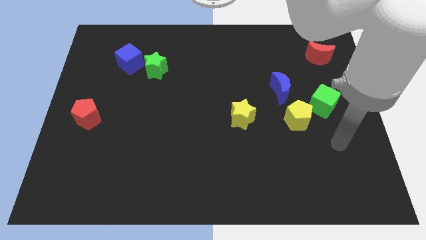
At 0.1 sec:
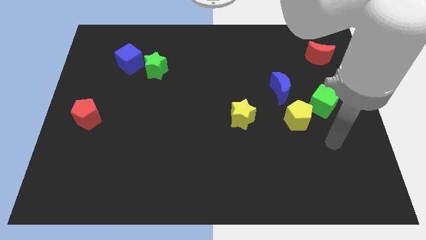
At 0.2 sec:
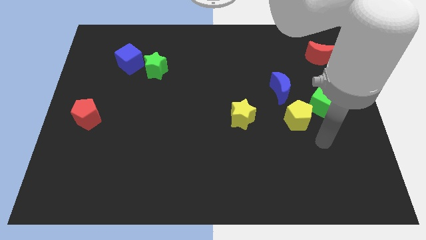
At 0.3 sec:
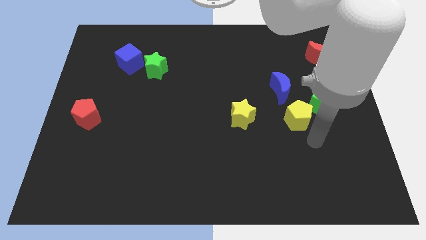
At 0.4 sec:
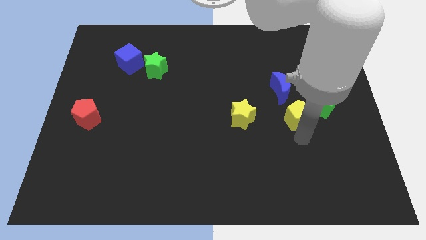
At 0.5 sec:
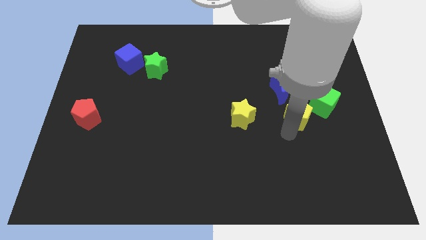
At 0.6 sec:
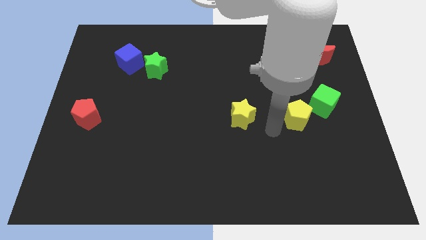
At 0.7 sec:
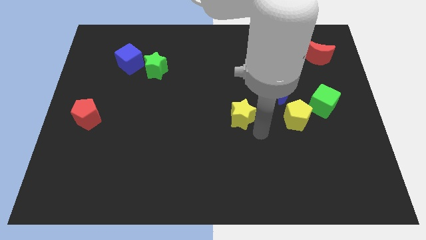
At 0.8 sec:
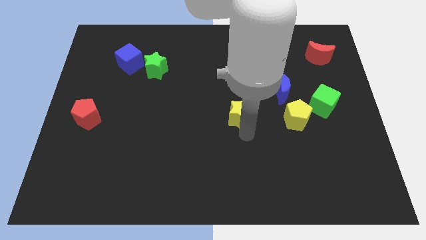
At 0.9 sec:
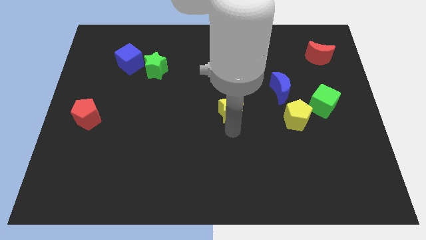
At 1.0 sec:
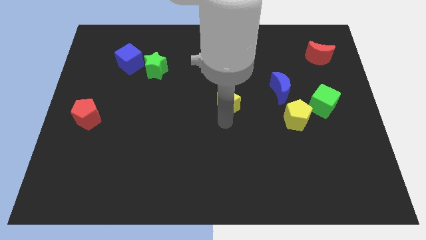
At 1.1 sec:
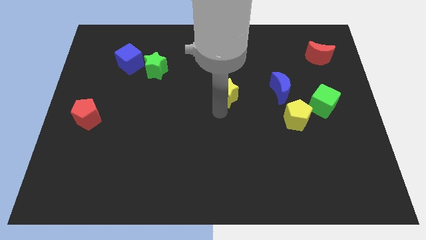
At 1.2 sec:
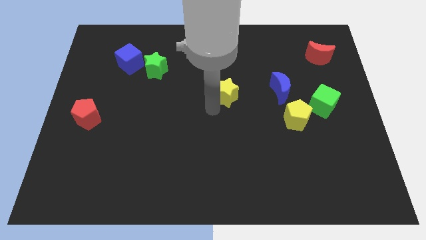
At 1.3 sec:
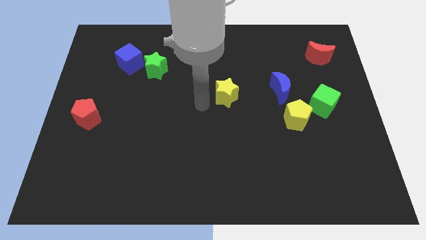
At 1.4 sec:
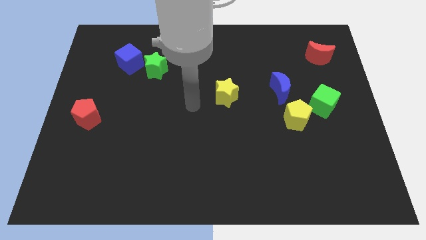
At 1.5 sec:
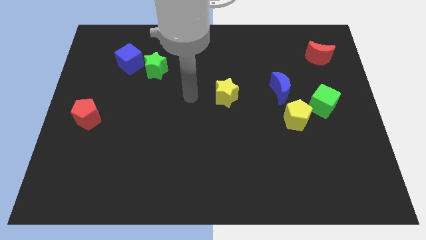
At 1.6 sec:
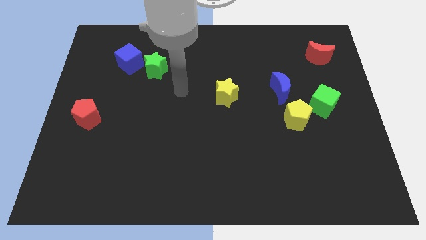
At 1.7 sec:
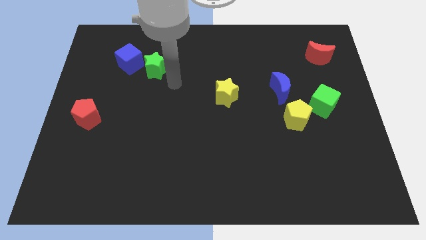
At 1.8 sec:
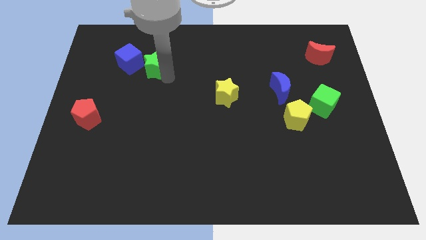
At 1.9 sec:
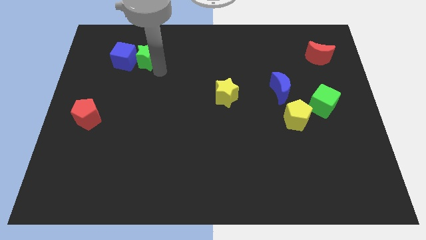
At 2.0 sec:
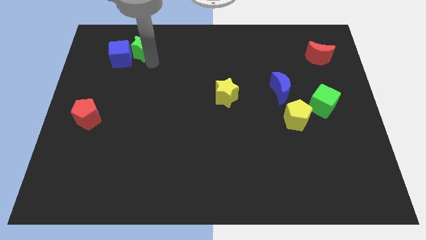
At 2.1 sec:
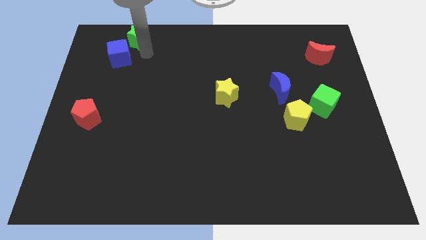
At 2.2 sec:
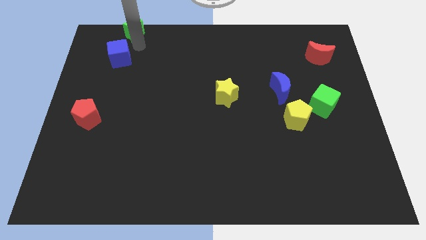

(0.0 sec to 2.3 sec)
separate the blue cube from the green star

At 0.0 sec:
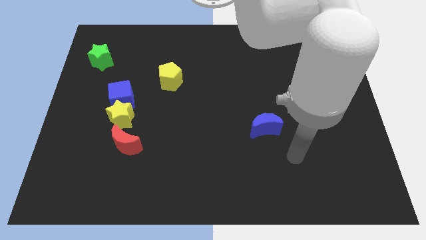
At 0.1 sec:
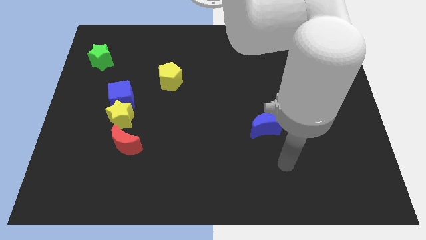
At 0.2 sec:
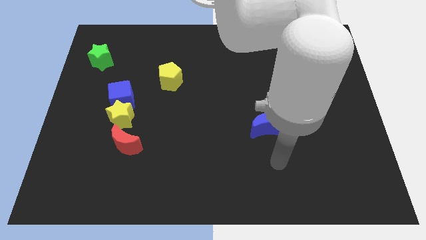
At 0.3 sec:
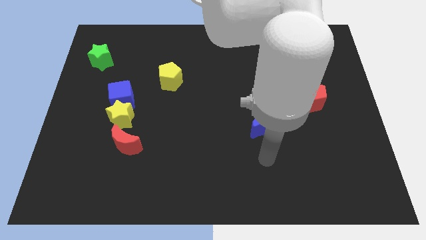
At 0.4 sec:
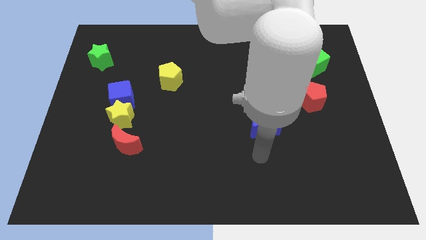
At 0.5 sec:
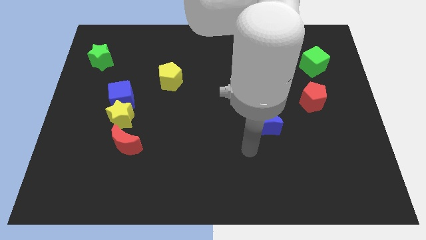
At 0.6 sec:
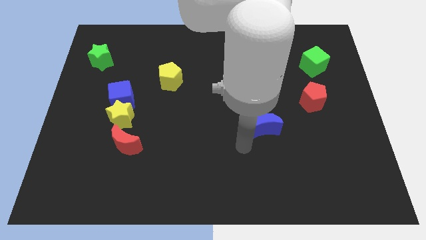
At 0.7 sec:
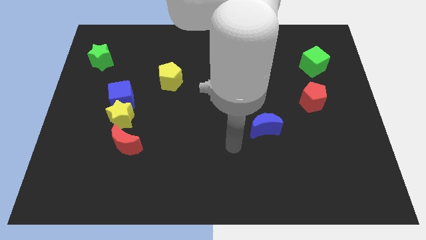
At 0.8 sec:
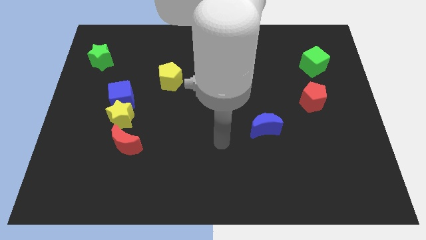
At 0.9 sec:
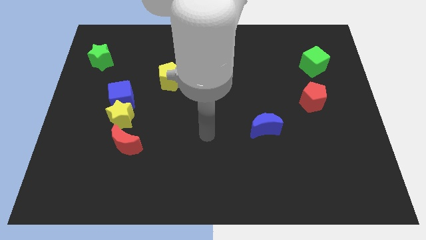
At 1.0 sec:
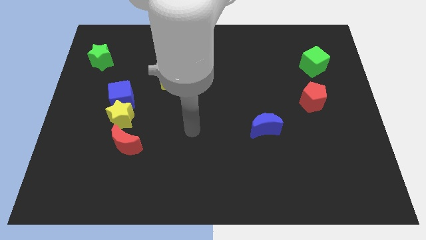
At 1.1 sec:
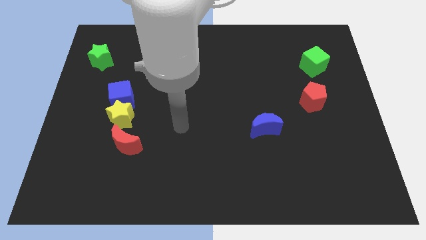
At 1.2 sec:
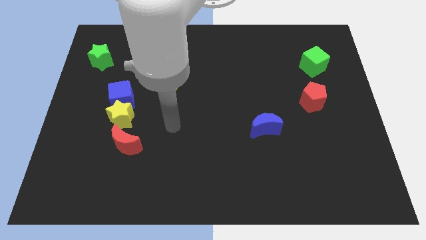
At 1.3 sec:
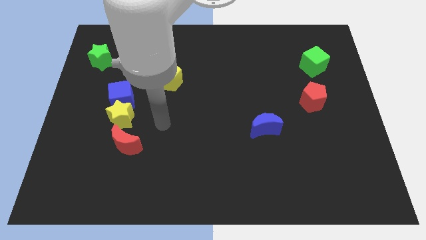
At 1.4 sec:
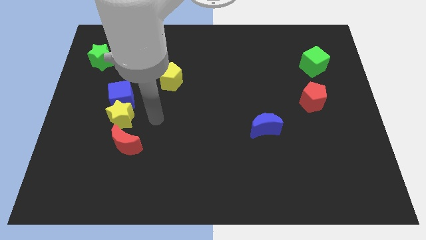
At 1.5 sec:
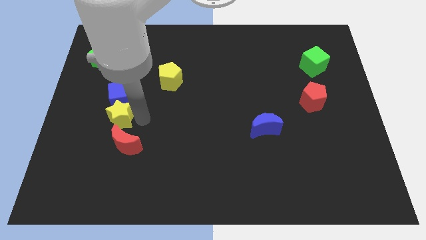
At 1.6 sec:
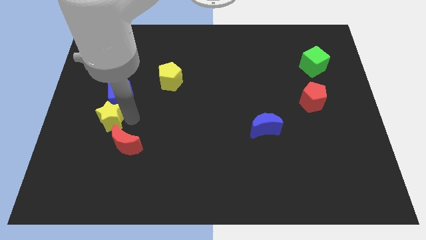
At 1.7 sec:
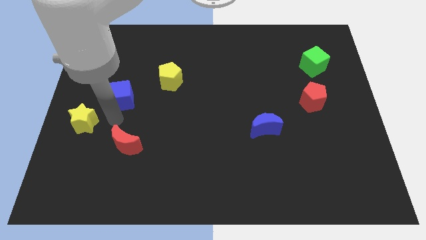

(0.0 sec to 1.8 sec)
separate the blue cube from the yellow star

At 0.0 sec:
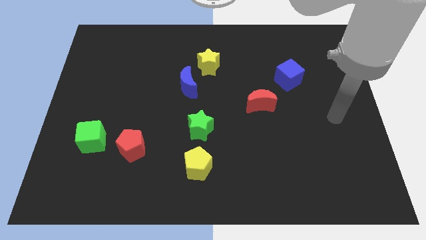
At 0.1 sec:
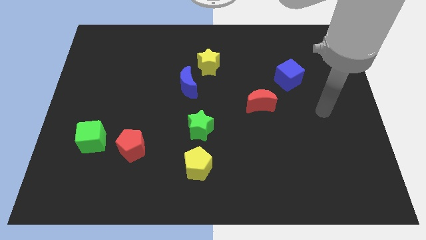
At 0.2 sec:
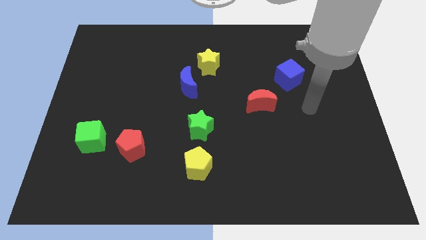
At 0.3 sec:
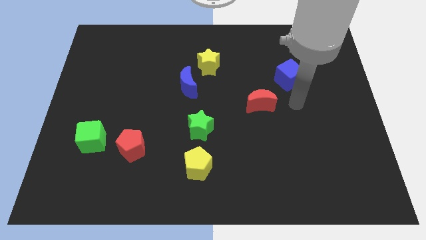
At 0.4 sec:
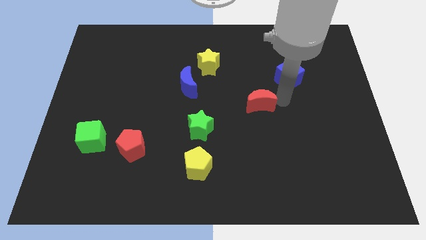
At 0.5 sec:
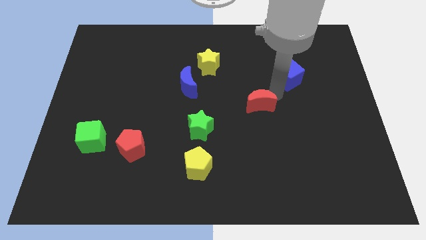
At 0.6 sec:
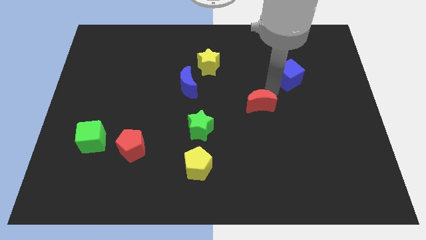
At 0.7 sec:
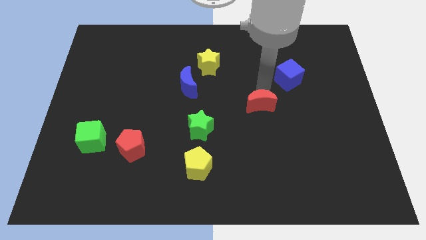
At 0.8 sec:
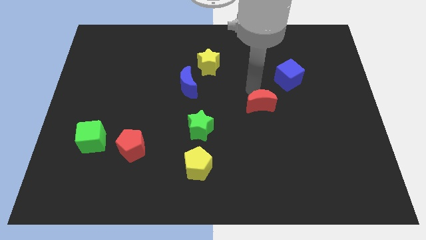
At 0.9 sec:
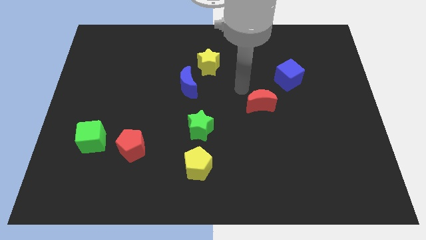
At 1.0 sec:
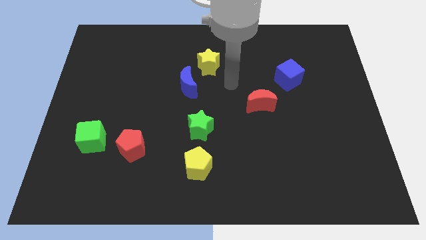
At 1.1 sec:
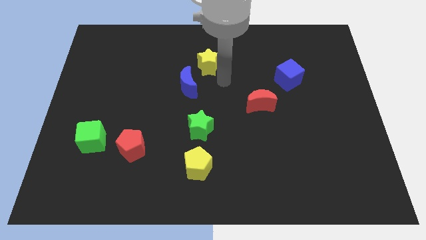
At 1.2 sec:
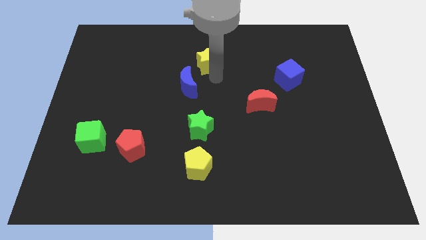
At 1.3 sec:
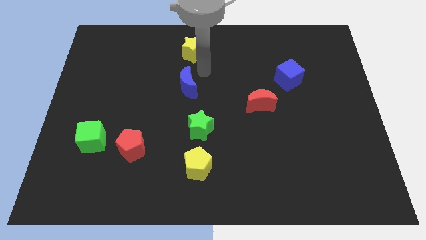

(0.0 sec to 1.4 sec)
move the blue moon away from the yellow star

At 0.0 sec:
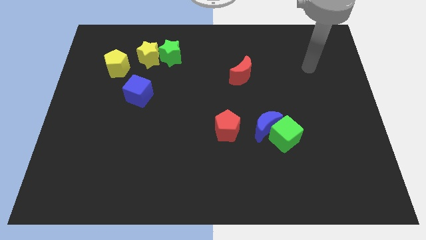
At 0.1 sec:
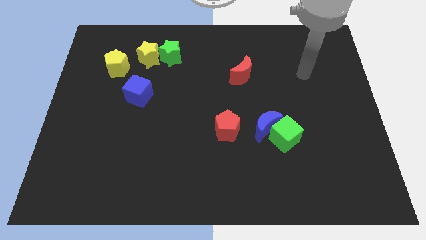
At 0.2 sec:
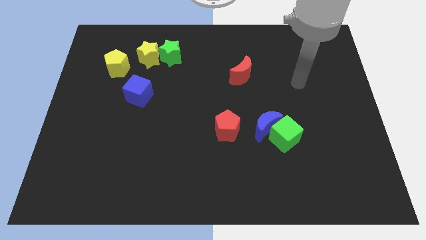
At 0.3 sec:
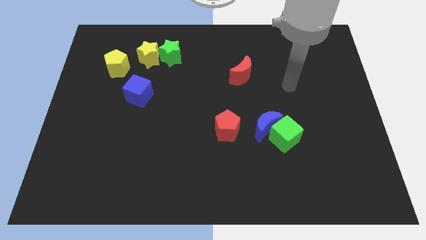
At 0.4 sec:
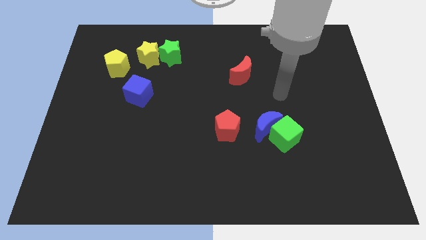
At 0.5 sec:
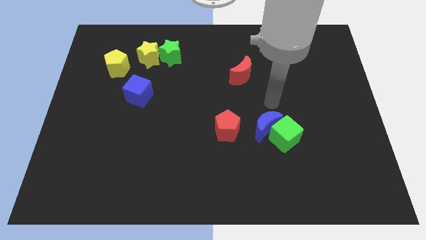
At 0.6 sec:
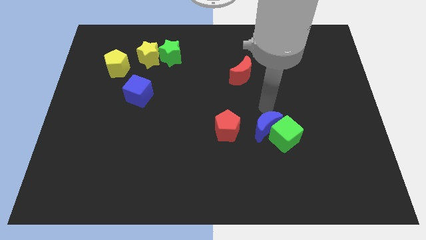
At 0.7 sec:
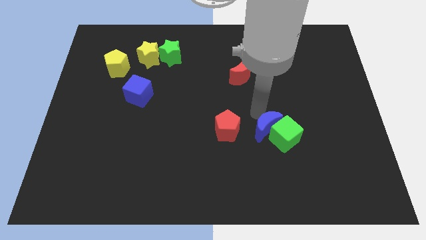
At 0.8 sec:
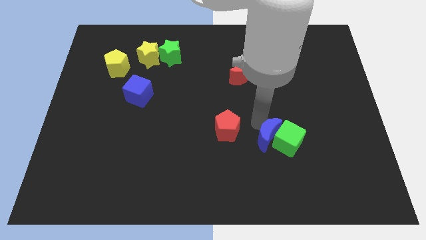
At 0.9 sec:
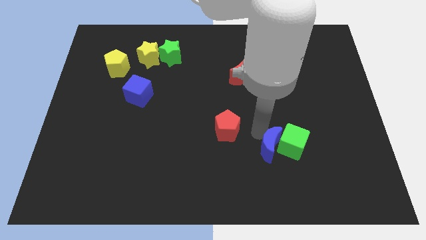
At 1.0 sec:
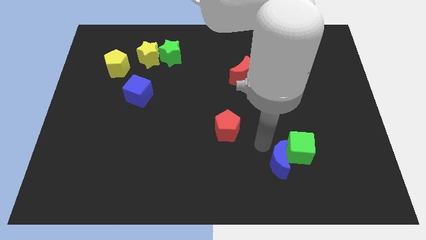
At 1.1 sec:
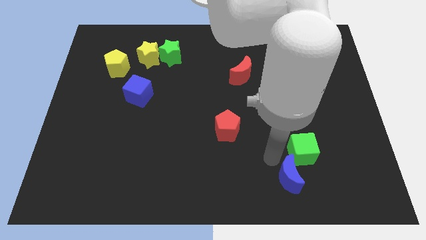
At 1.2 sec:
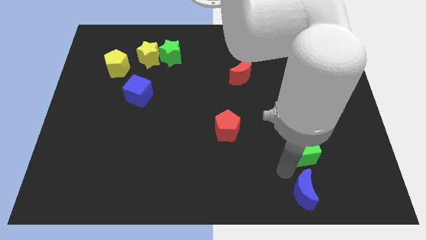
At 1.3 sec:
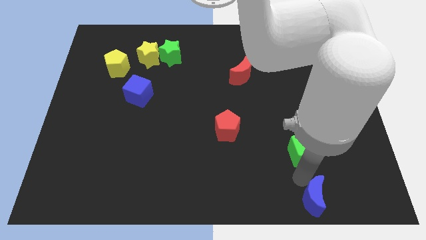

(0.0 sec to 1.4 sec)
separate the green cube from the blue moon

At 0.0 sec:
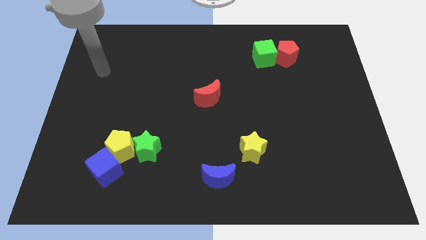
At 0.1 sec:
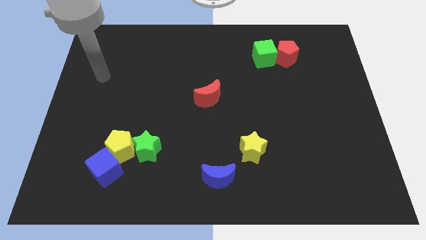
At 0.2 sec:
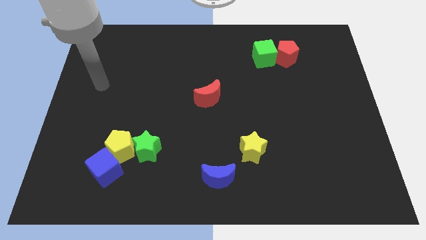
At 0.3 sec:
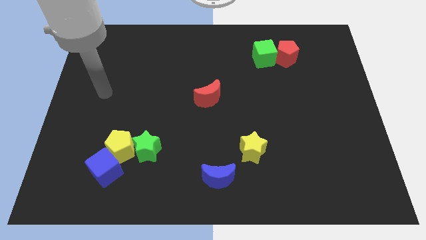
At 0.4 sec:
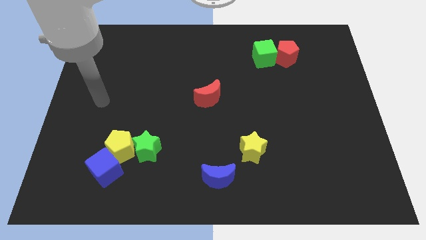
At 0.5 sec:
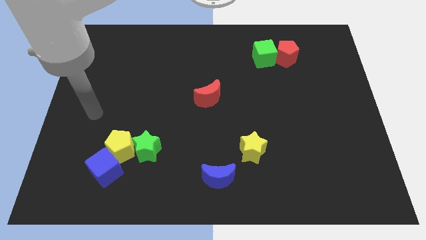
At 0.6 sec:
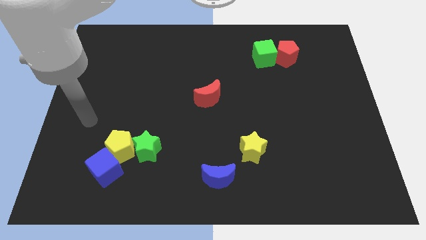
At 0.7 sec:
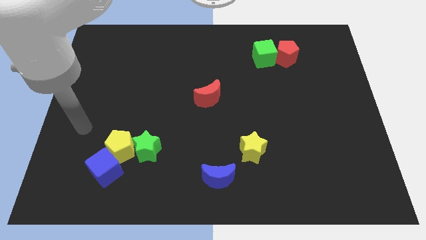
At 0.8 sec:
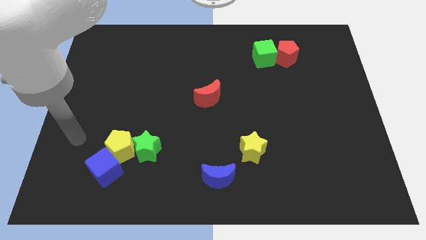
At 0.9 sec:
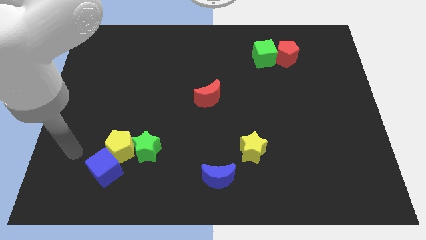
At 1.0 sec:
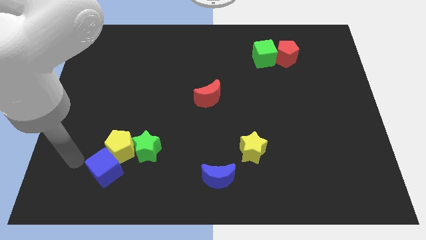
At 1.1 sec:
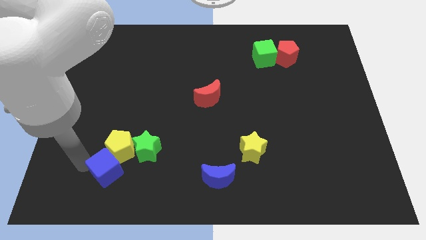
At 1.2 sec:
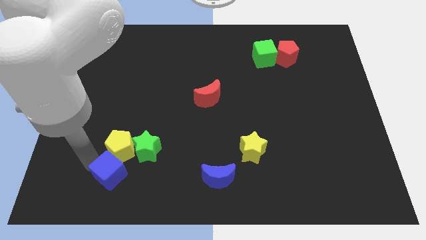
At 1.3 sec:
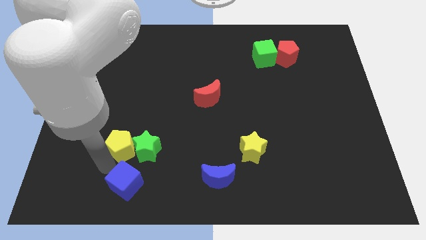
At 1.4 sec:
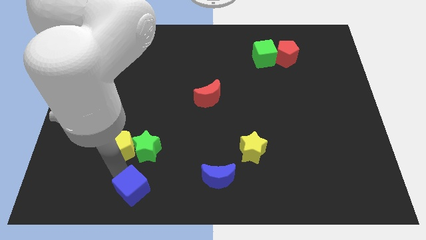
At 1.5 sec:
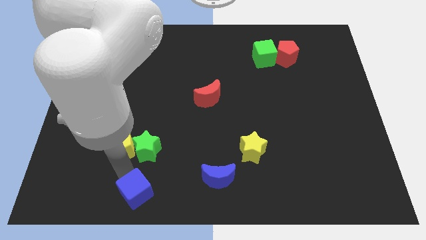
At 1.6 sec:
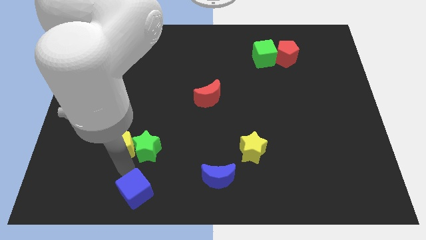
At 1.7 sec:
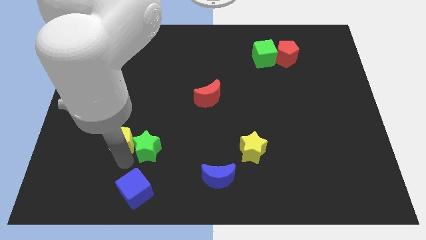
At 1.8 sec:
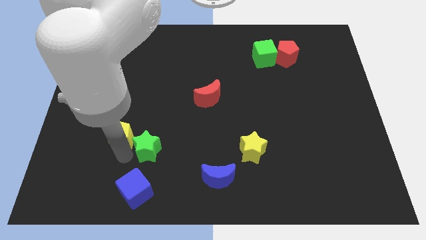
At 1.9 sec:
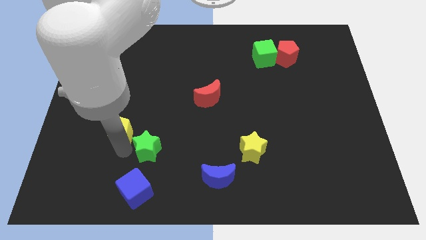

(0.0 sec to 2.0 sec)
pull the yellow pentagon apart from the green star and blue cube

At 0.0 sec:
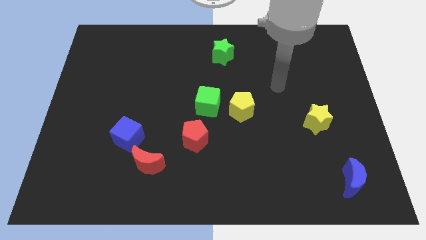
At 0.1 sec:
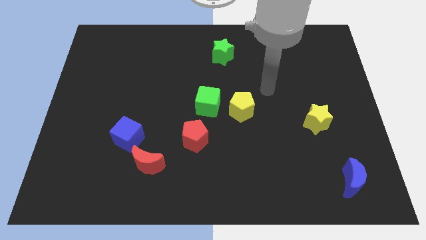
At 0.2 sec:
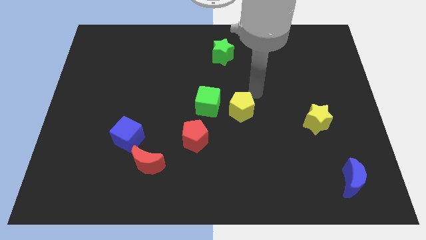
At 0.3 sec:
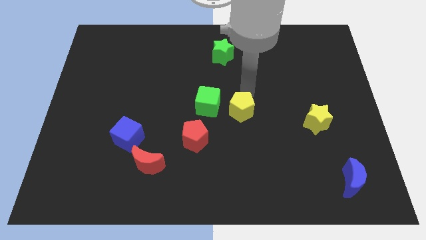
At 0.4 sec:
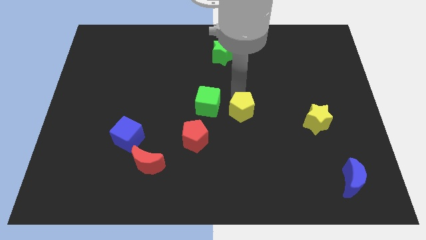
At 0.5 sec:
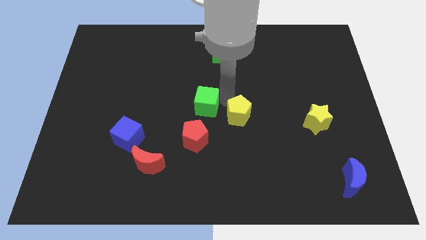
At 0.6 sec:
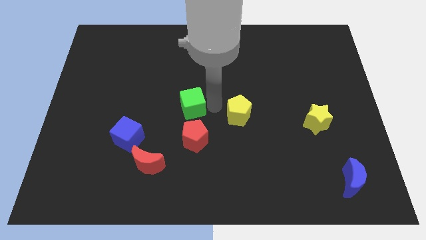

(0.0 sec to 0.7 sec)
separate the yellow pentagon from the green cube
